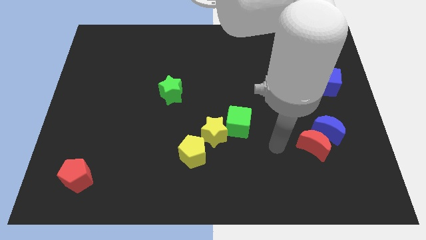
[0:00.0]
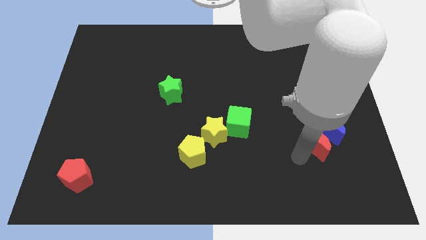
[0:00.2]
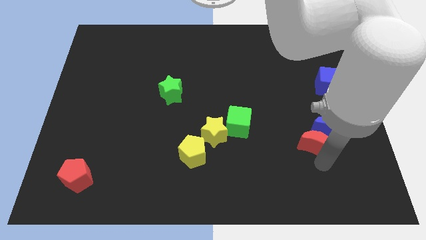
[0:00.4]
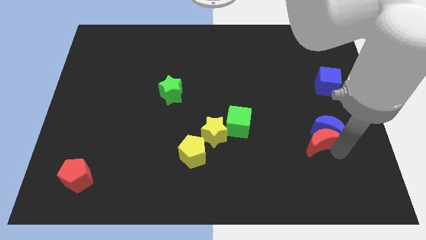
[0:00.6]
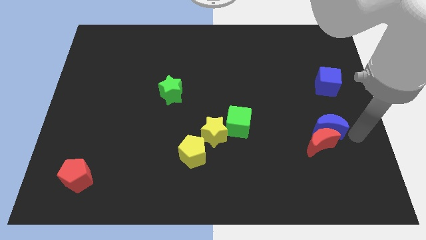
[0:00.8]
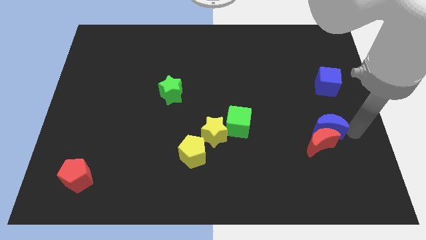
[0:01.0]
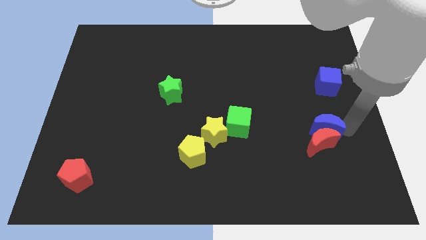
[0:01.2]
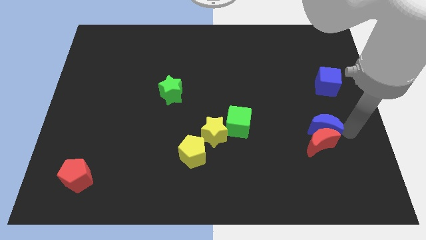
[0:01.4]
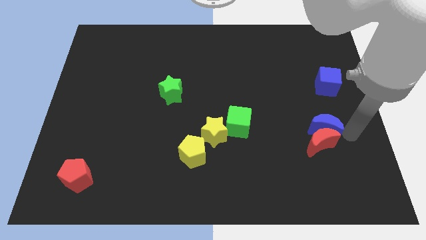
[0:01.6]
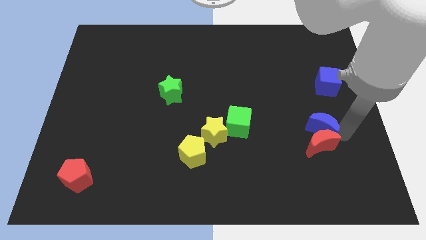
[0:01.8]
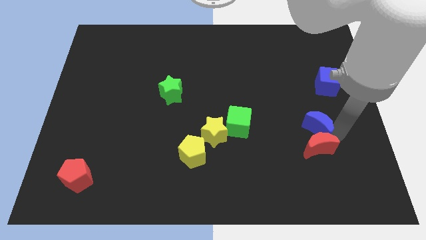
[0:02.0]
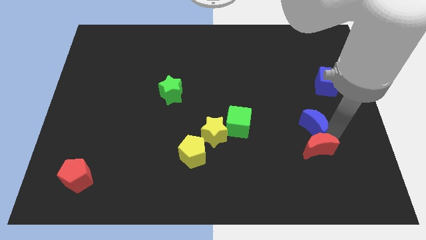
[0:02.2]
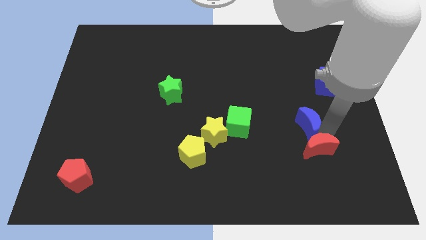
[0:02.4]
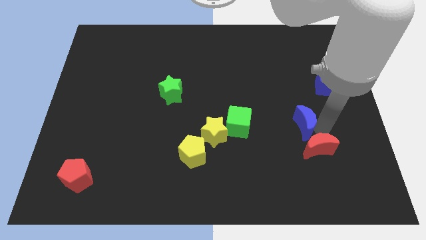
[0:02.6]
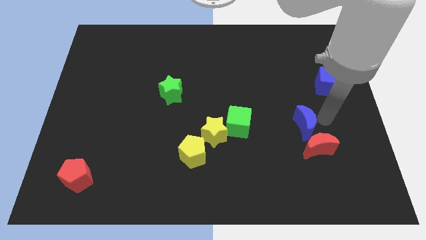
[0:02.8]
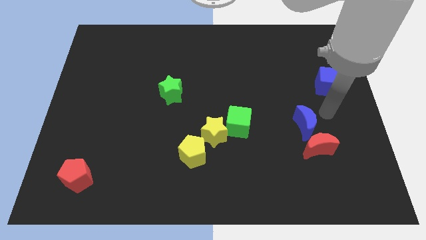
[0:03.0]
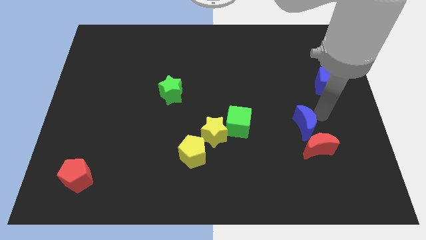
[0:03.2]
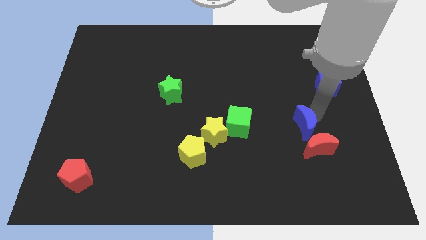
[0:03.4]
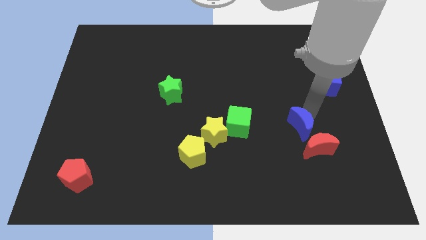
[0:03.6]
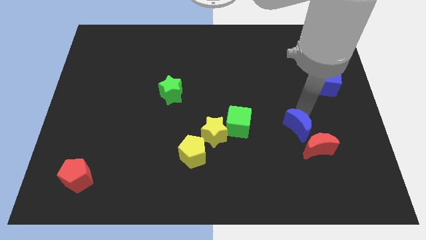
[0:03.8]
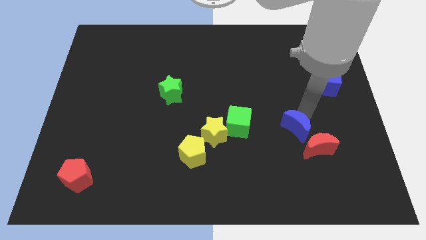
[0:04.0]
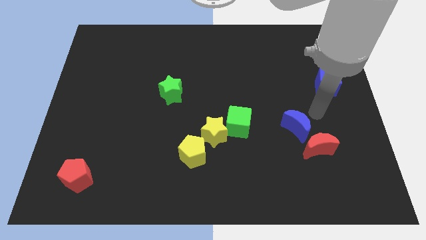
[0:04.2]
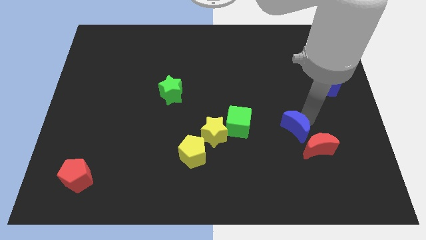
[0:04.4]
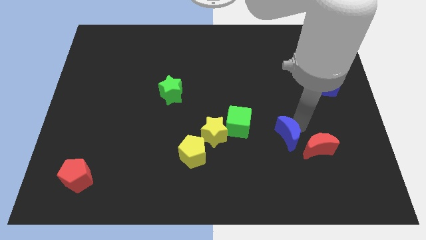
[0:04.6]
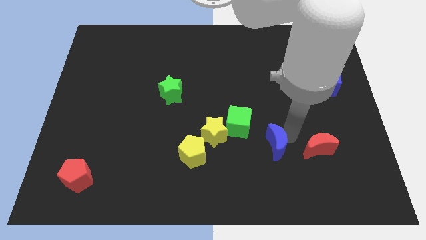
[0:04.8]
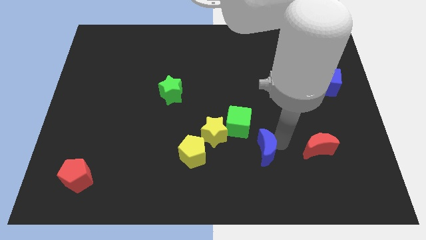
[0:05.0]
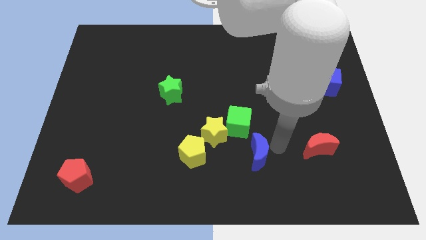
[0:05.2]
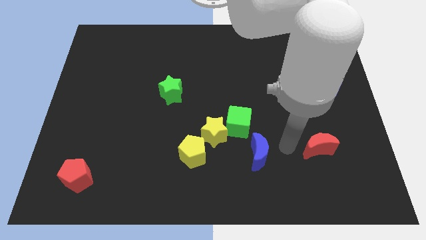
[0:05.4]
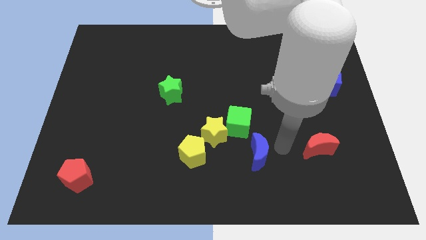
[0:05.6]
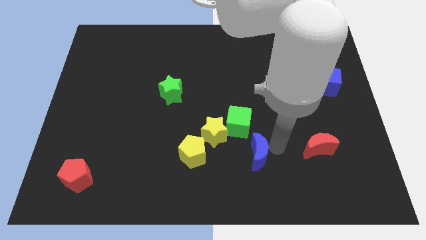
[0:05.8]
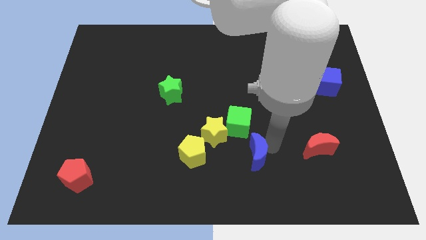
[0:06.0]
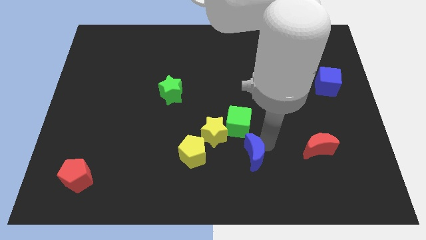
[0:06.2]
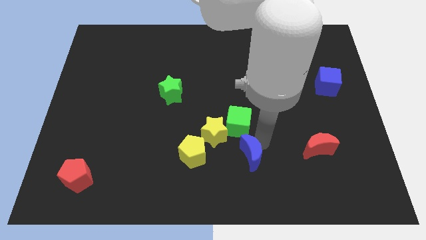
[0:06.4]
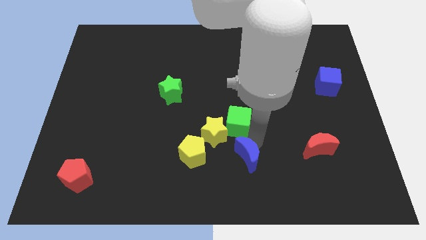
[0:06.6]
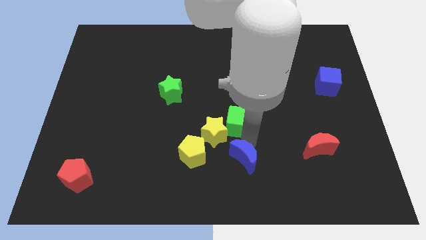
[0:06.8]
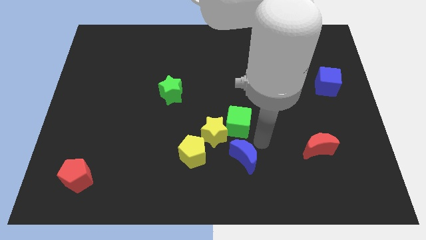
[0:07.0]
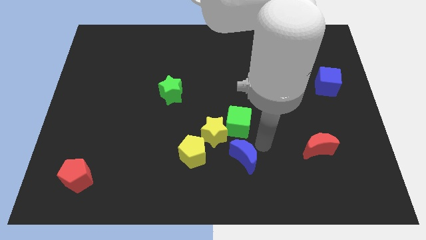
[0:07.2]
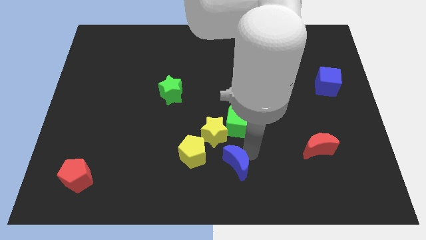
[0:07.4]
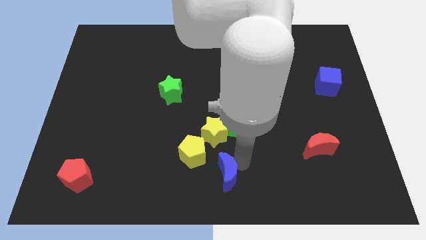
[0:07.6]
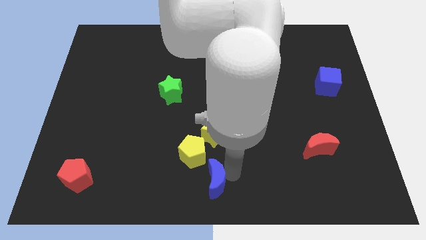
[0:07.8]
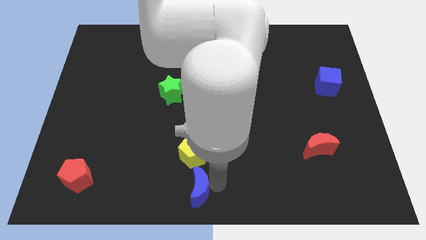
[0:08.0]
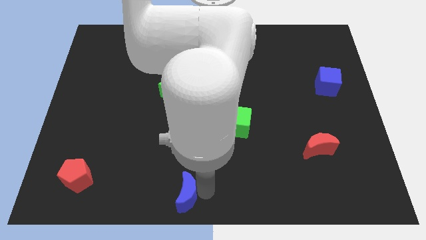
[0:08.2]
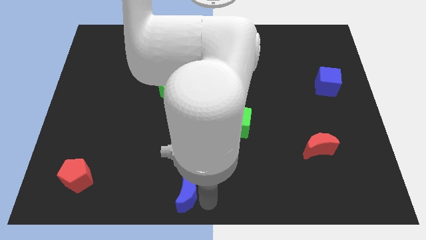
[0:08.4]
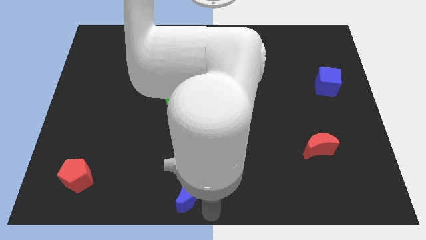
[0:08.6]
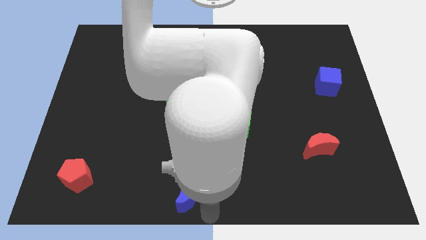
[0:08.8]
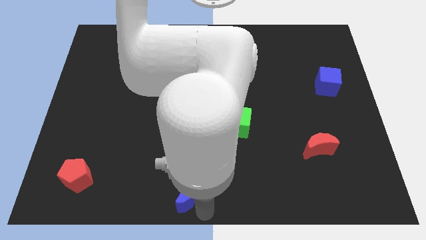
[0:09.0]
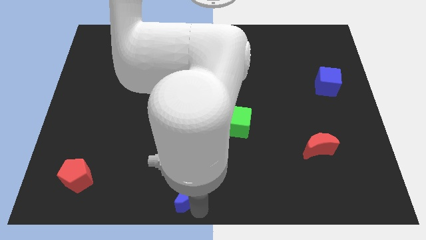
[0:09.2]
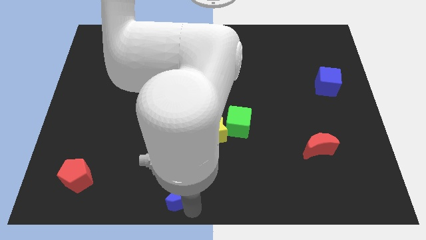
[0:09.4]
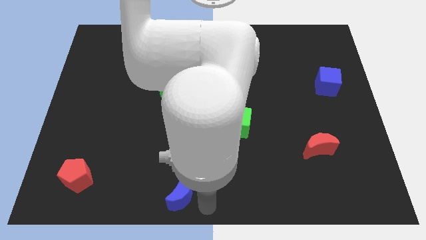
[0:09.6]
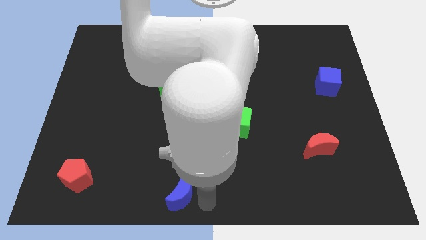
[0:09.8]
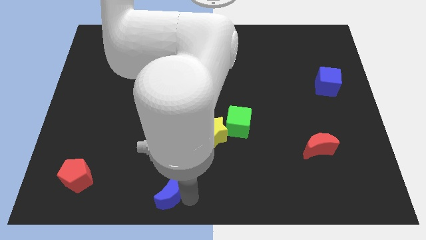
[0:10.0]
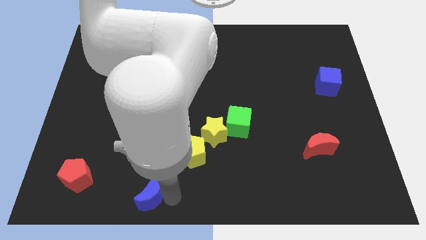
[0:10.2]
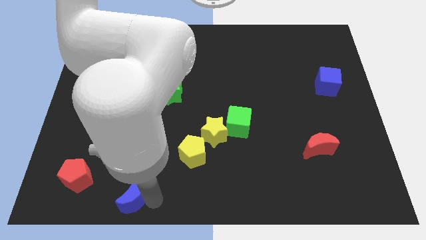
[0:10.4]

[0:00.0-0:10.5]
push the blue moon to the right of the red pentagon

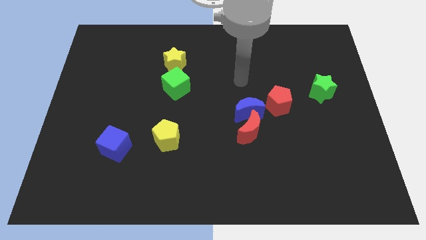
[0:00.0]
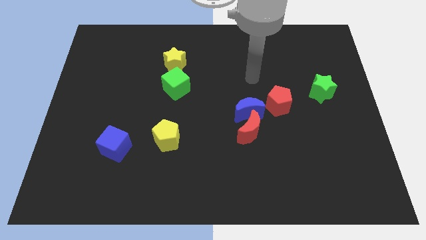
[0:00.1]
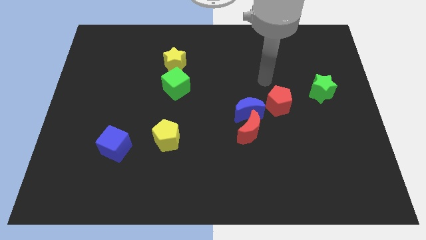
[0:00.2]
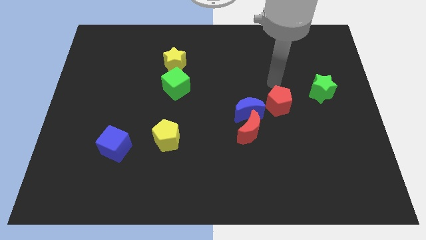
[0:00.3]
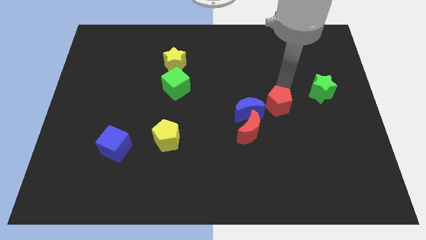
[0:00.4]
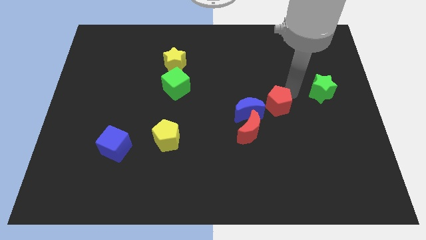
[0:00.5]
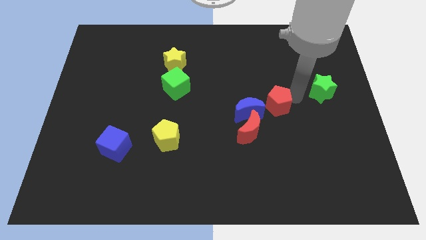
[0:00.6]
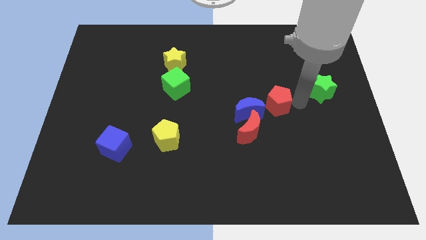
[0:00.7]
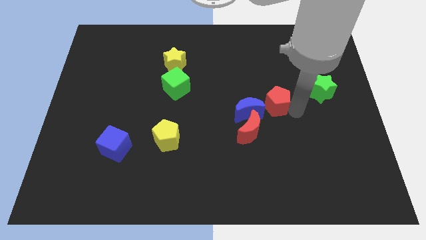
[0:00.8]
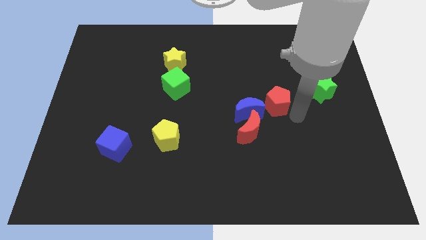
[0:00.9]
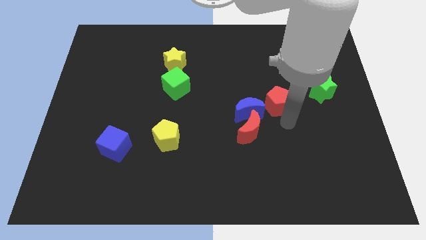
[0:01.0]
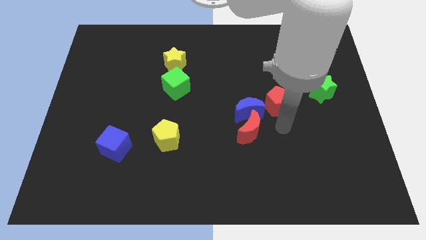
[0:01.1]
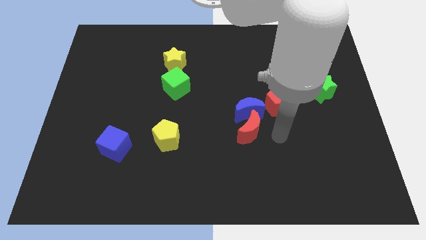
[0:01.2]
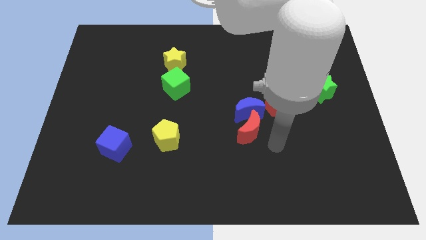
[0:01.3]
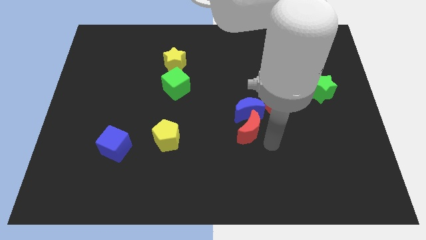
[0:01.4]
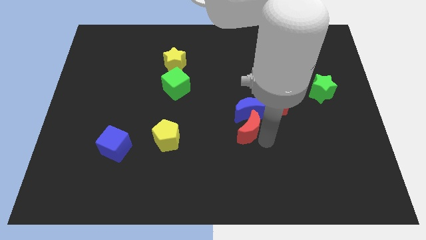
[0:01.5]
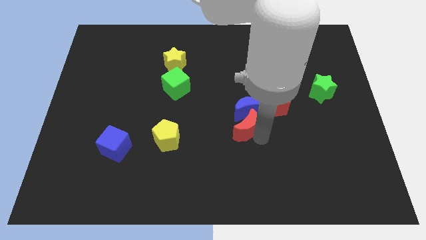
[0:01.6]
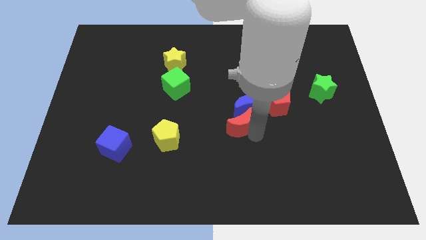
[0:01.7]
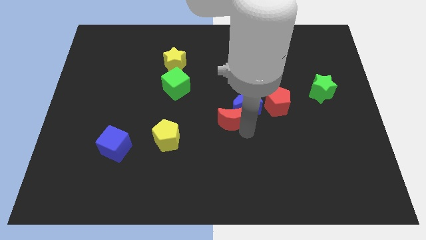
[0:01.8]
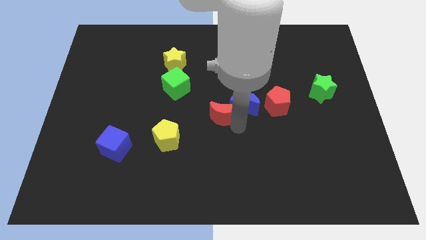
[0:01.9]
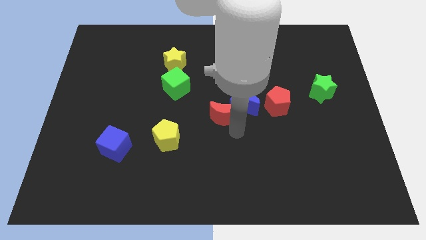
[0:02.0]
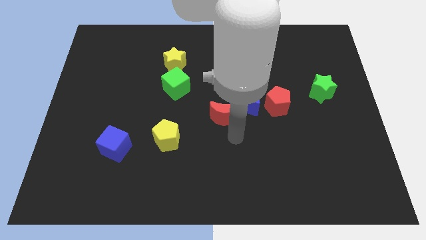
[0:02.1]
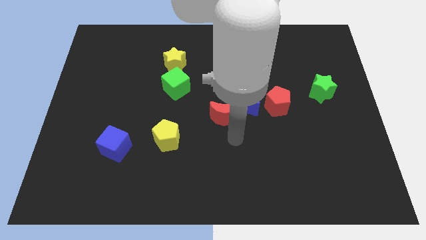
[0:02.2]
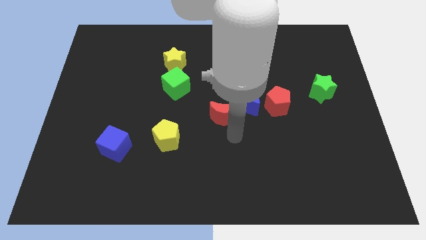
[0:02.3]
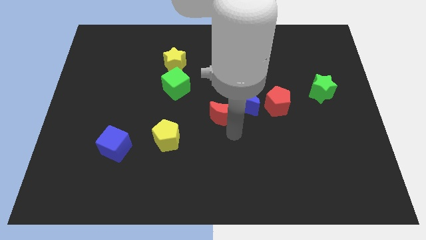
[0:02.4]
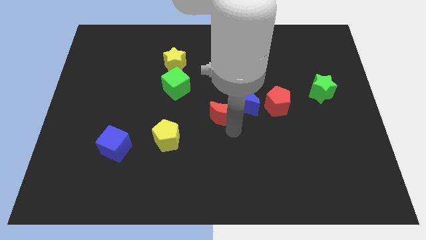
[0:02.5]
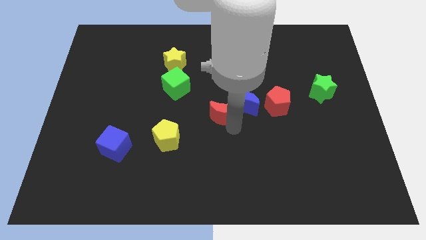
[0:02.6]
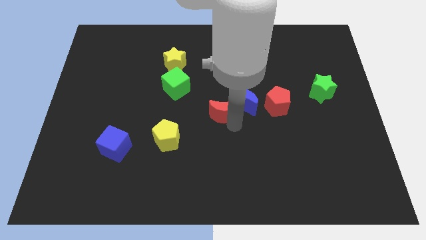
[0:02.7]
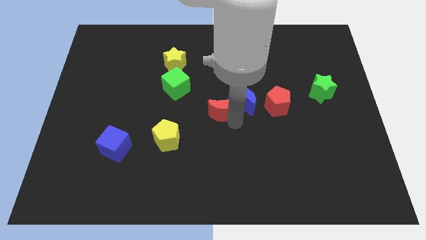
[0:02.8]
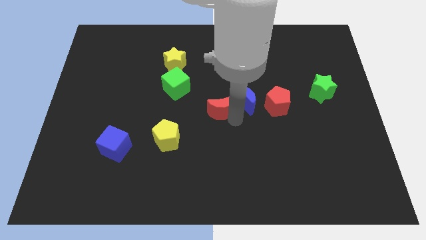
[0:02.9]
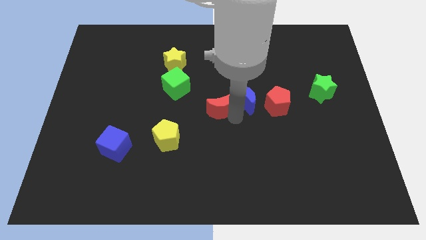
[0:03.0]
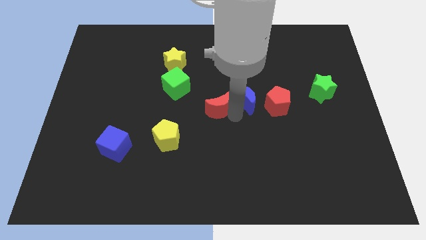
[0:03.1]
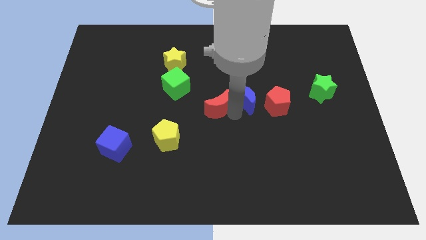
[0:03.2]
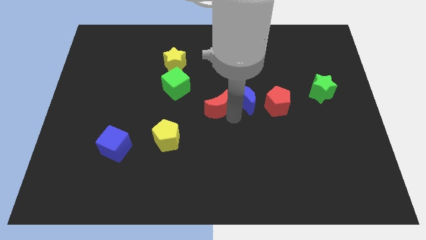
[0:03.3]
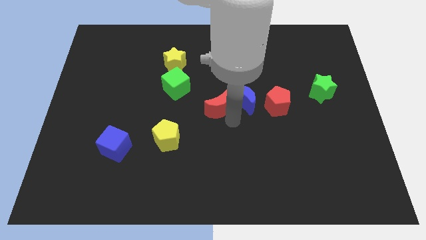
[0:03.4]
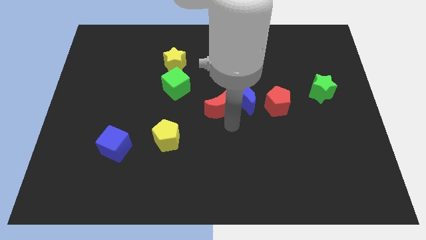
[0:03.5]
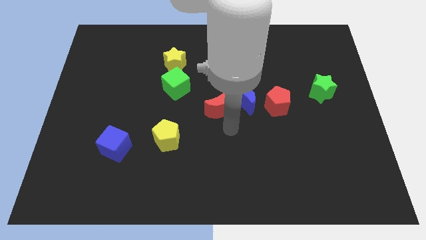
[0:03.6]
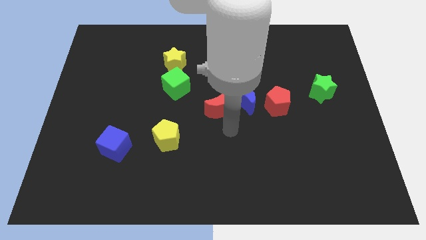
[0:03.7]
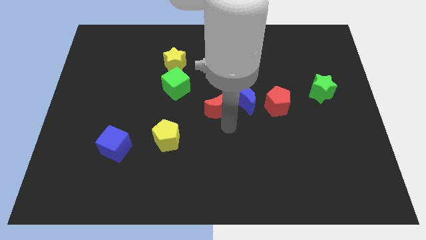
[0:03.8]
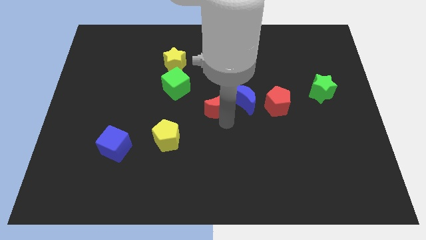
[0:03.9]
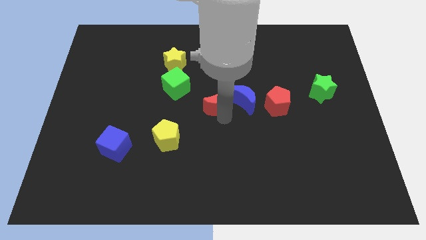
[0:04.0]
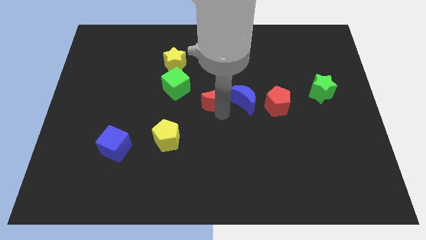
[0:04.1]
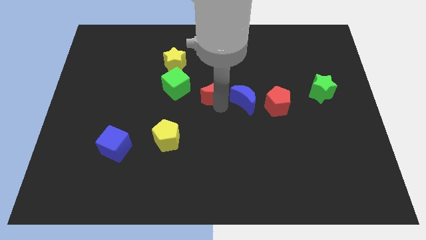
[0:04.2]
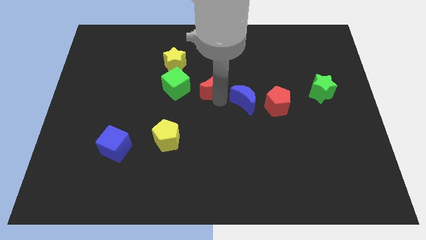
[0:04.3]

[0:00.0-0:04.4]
push the red moon to the bottom right of the yellow star
